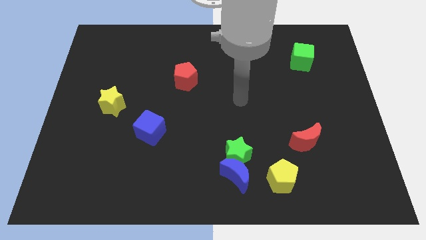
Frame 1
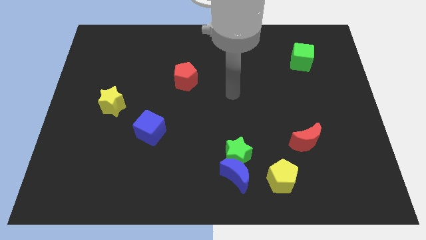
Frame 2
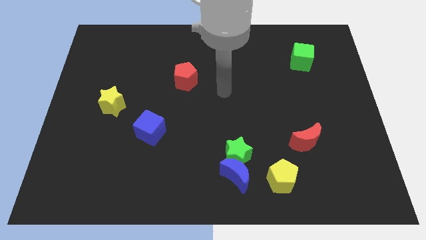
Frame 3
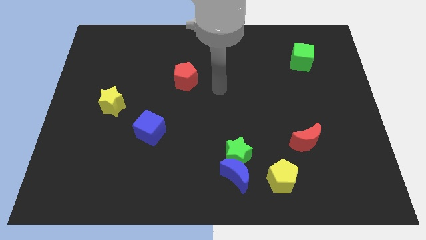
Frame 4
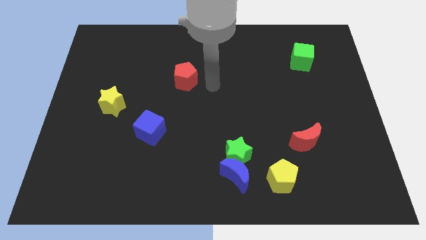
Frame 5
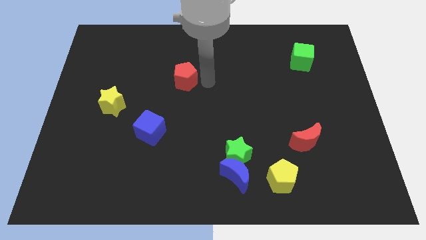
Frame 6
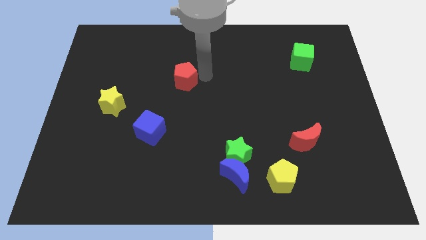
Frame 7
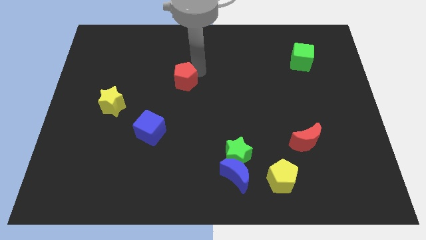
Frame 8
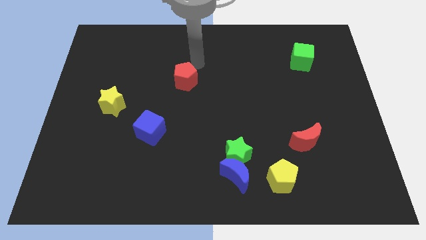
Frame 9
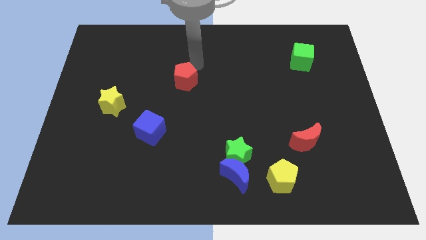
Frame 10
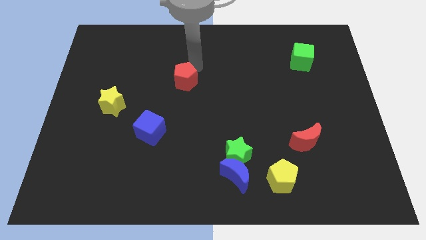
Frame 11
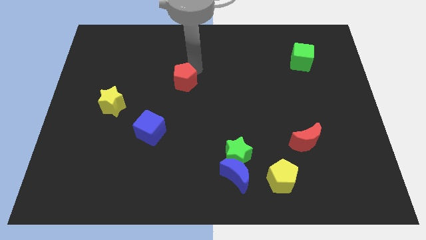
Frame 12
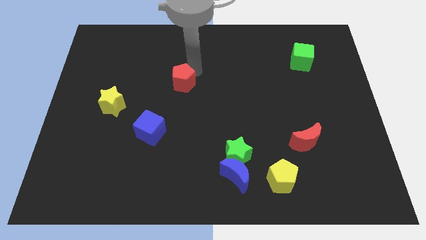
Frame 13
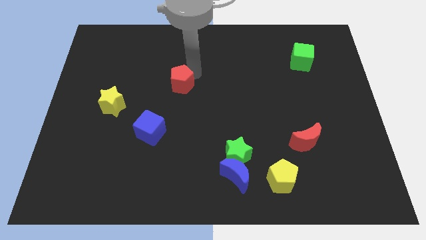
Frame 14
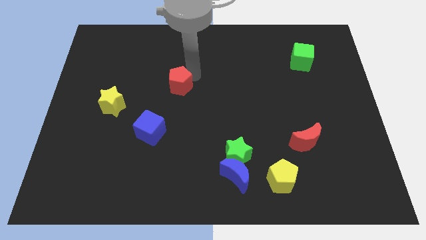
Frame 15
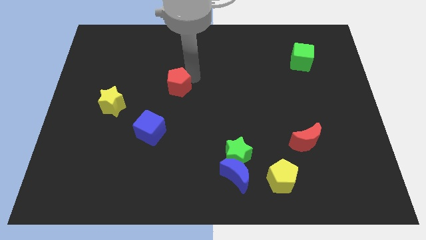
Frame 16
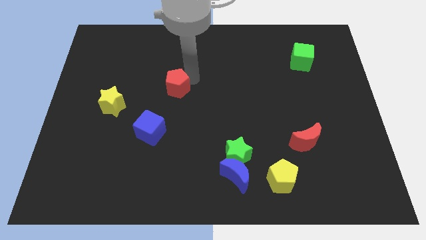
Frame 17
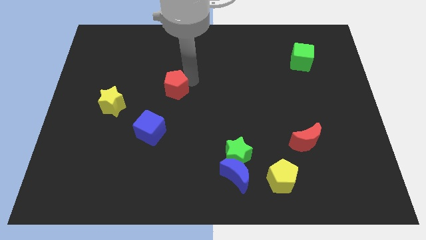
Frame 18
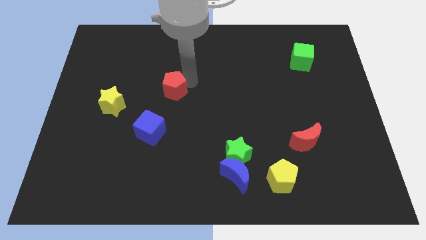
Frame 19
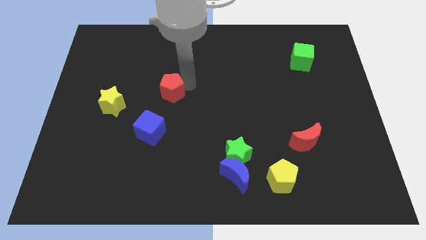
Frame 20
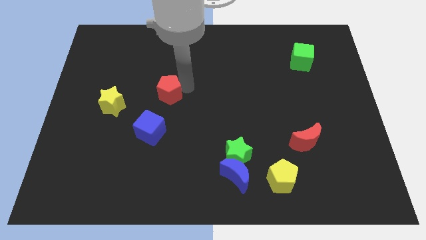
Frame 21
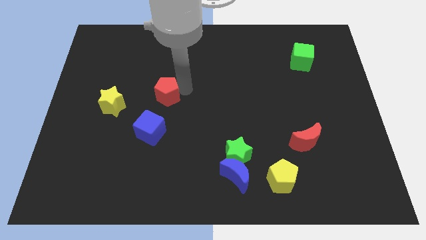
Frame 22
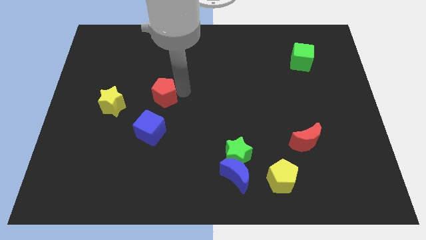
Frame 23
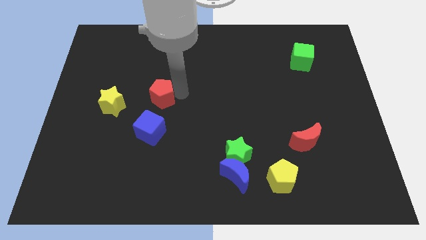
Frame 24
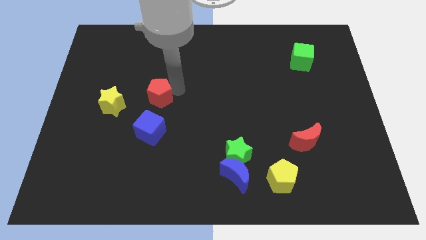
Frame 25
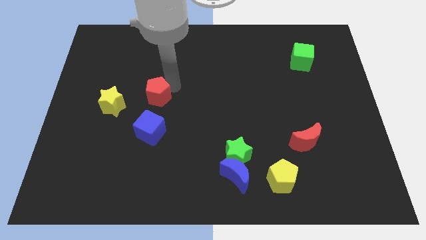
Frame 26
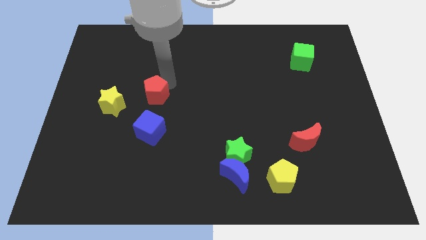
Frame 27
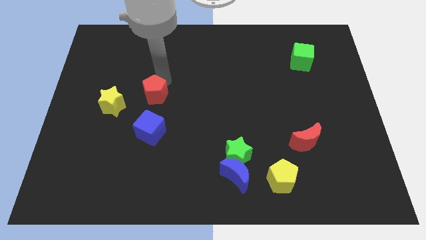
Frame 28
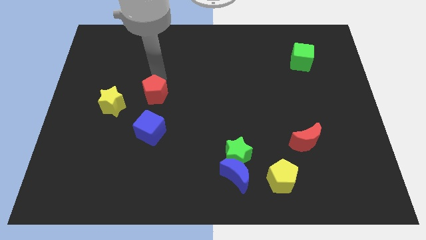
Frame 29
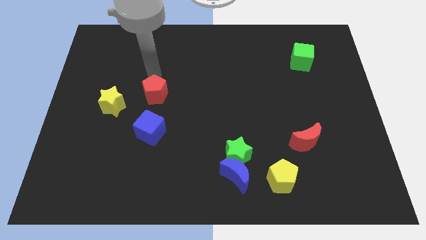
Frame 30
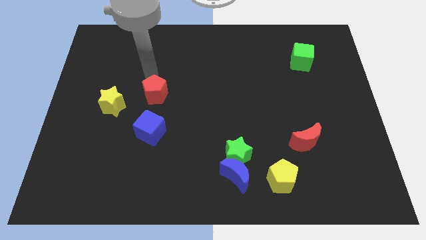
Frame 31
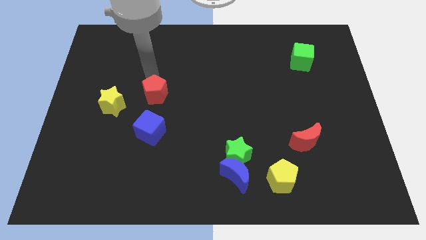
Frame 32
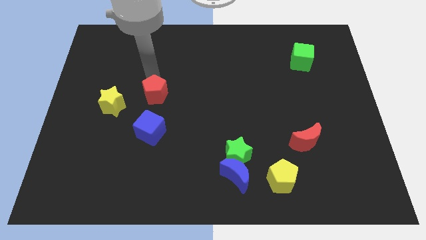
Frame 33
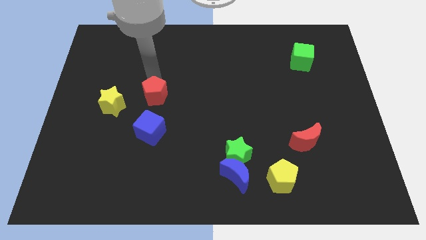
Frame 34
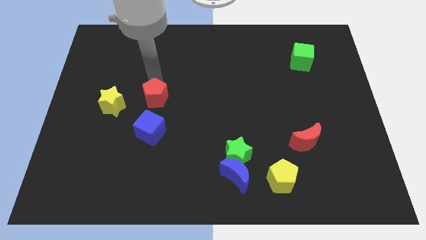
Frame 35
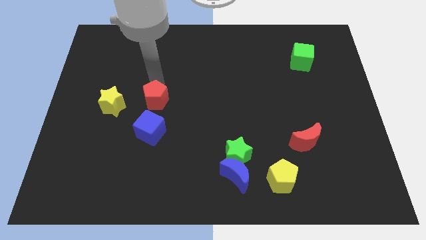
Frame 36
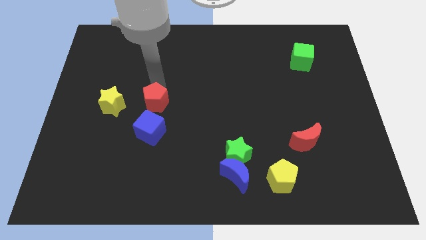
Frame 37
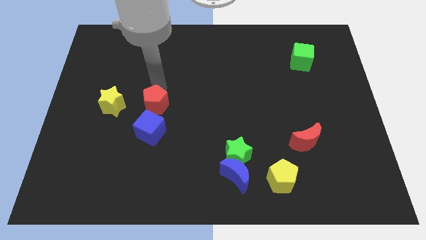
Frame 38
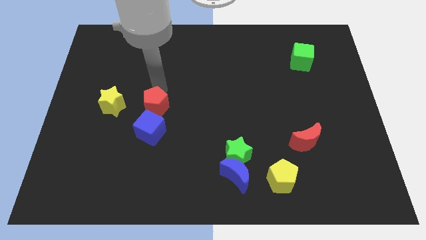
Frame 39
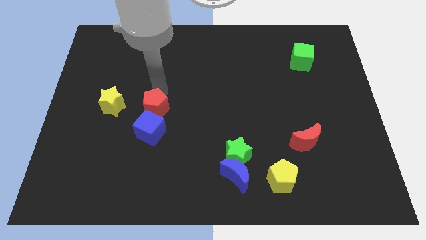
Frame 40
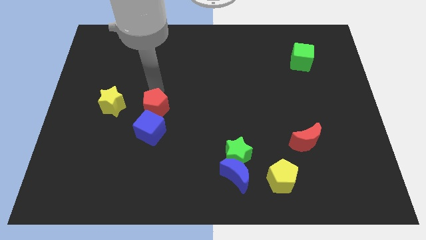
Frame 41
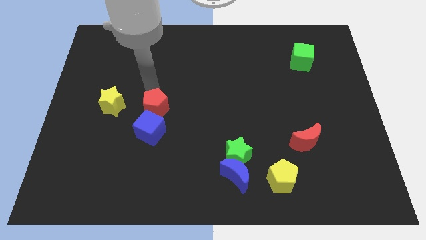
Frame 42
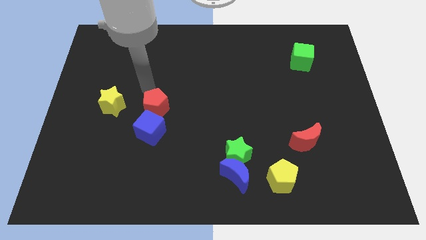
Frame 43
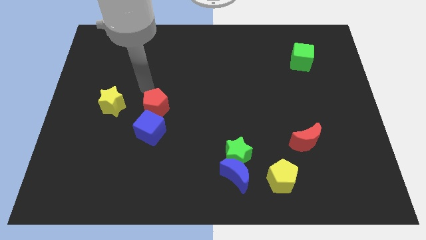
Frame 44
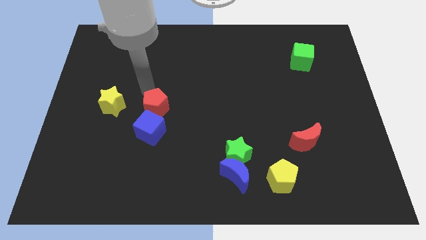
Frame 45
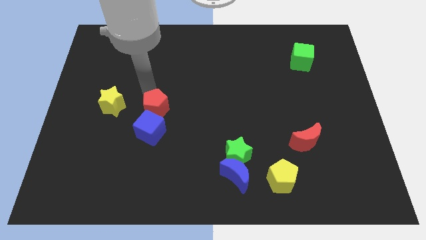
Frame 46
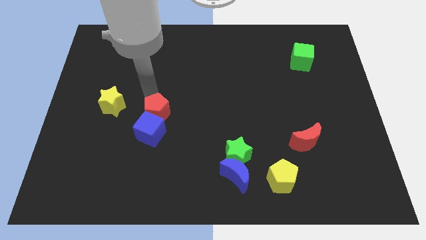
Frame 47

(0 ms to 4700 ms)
push the red pentagon towards the blue cube

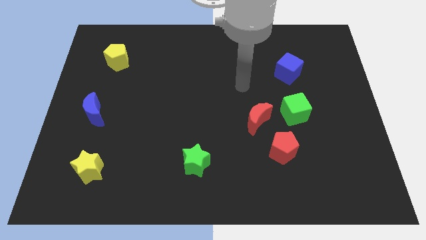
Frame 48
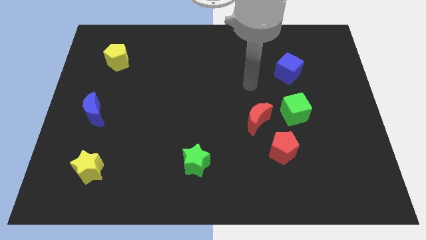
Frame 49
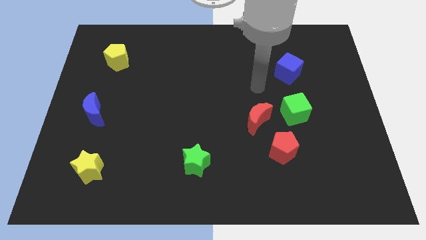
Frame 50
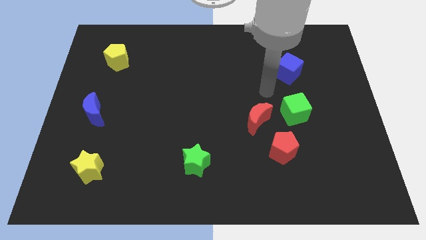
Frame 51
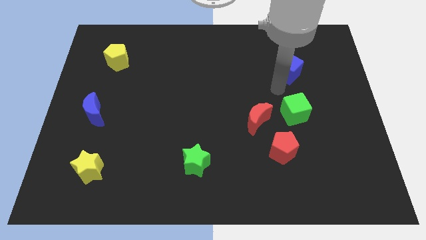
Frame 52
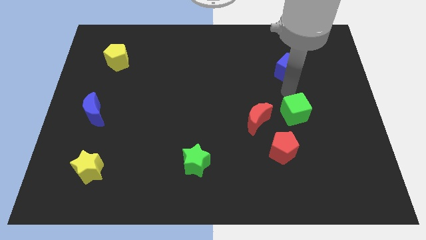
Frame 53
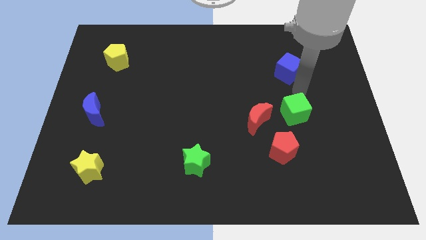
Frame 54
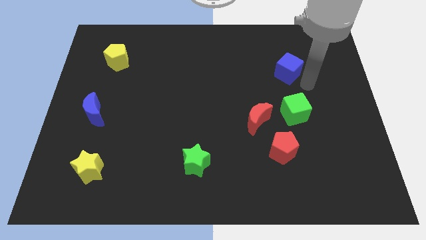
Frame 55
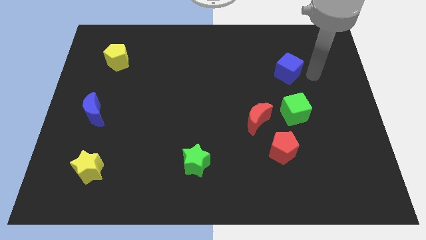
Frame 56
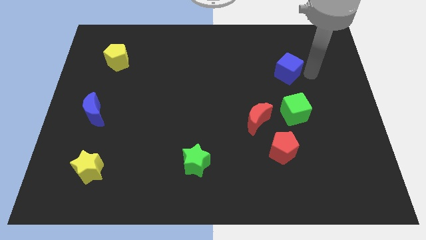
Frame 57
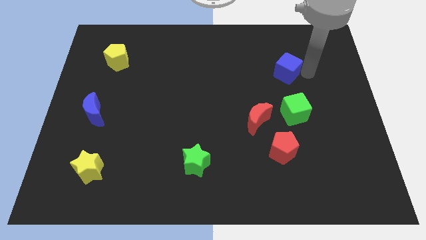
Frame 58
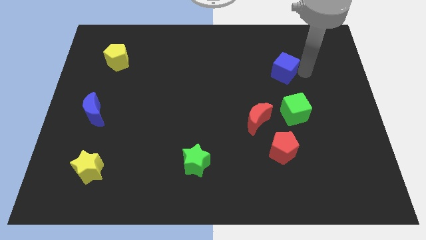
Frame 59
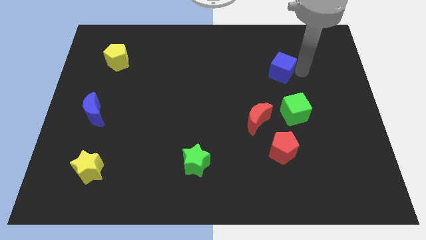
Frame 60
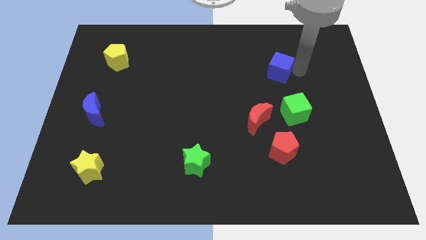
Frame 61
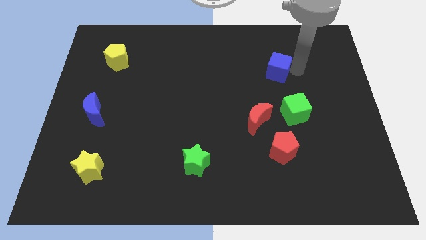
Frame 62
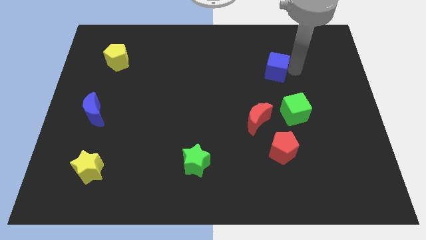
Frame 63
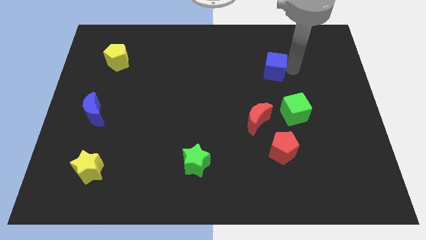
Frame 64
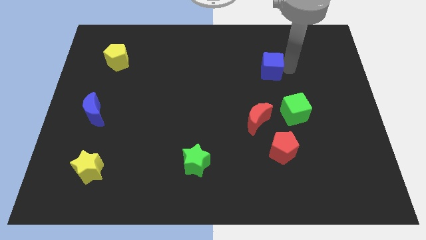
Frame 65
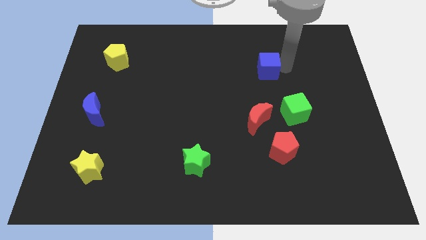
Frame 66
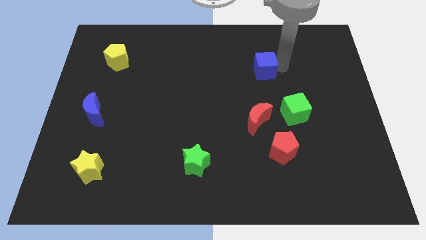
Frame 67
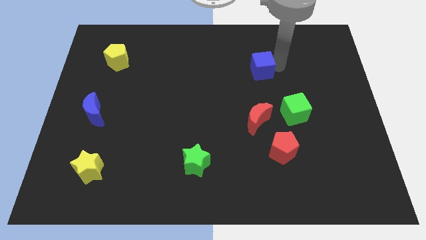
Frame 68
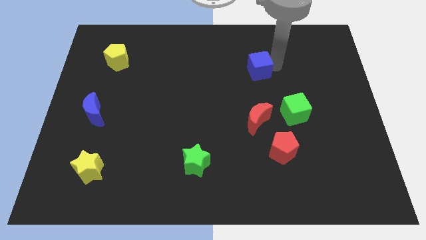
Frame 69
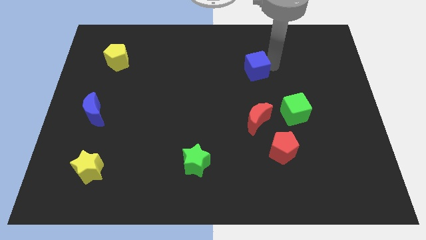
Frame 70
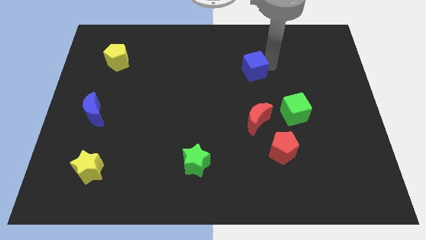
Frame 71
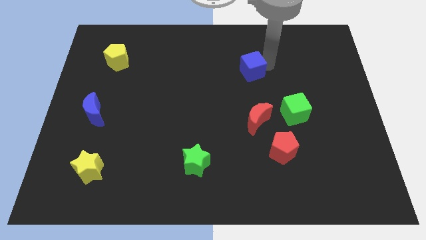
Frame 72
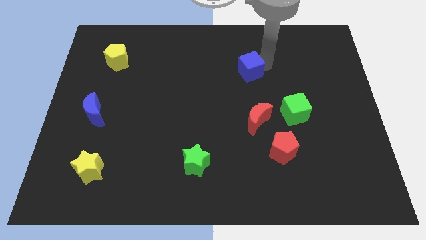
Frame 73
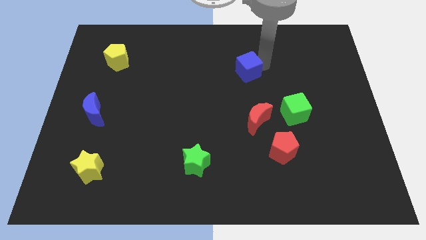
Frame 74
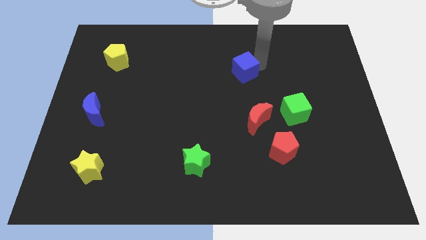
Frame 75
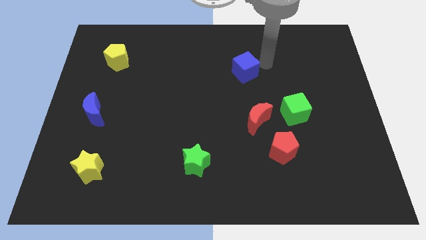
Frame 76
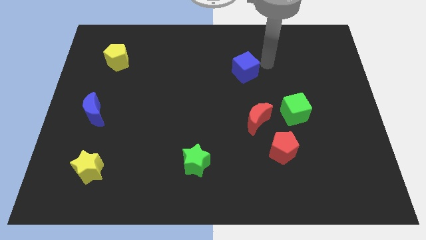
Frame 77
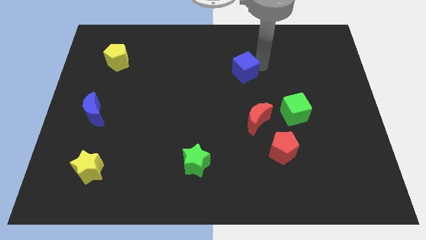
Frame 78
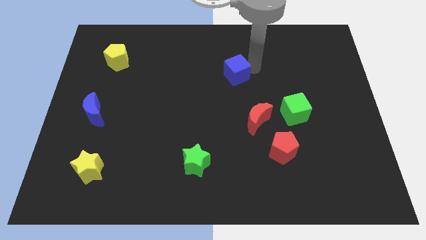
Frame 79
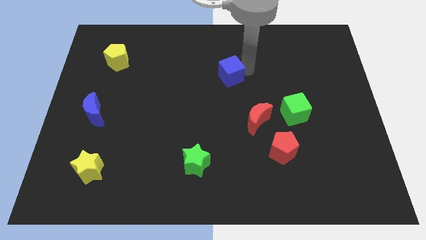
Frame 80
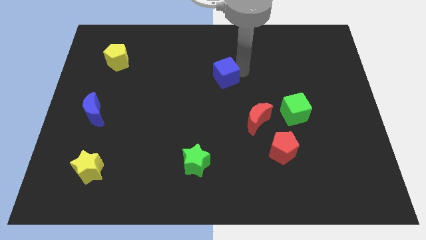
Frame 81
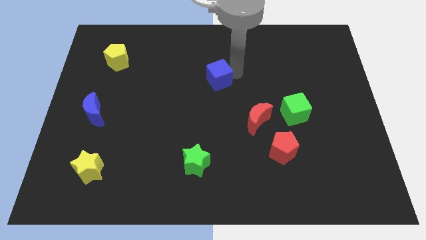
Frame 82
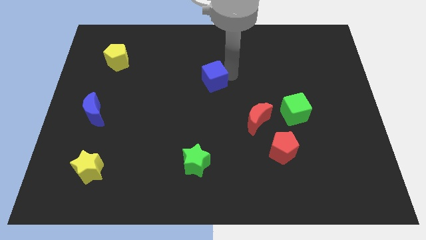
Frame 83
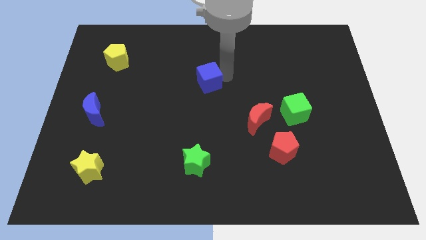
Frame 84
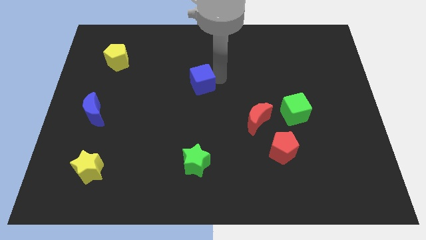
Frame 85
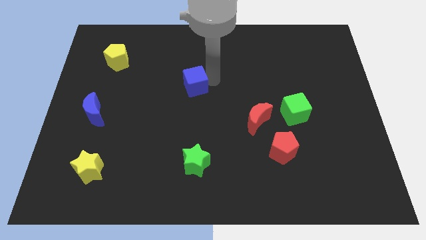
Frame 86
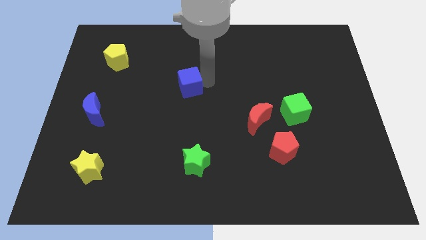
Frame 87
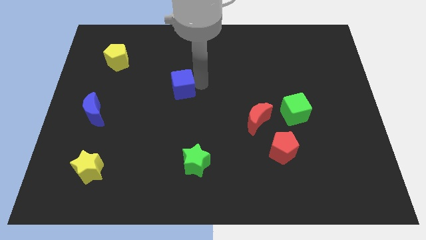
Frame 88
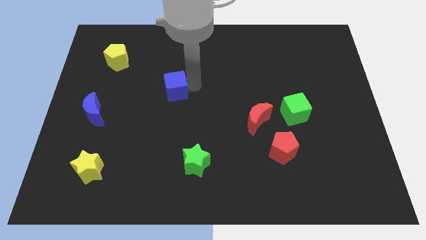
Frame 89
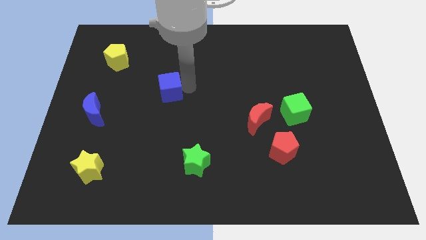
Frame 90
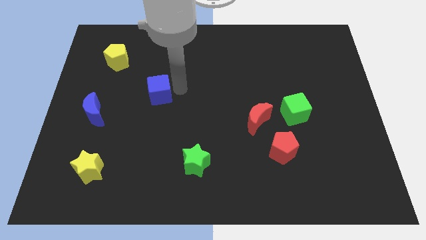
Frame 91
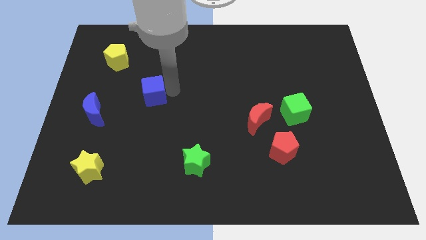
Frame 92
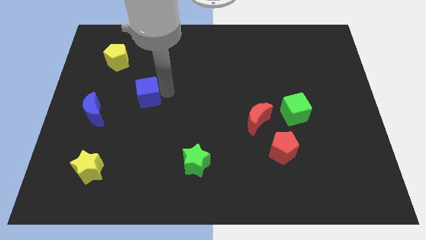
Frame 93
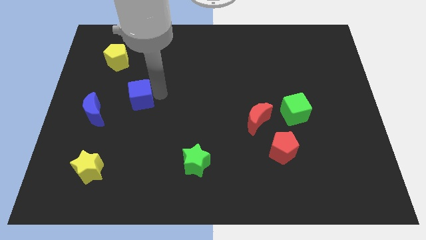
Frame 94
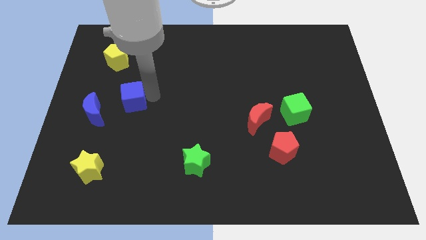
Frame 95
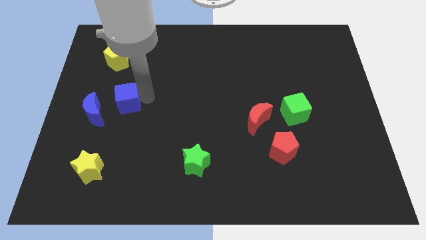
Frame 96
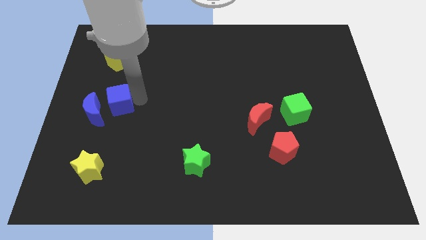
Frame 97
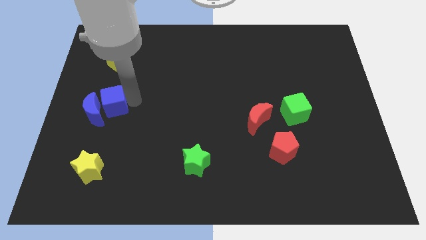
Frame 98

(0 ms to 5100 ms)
put the blue cube to the blue moon
